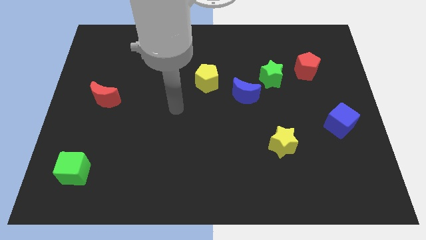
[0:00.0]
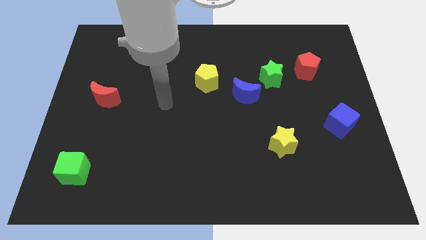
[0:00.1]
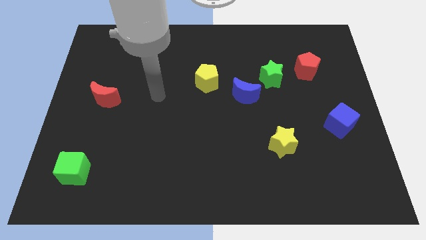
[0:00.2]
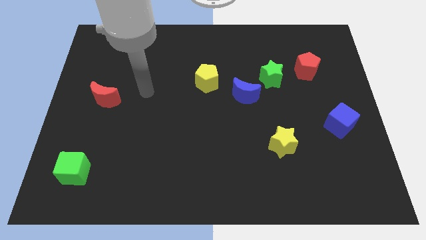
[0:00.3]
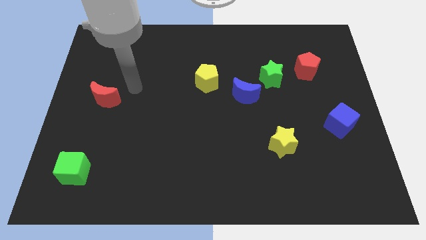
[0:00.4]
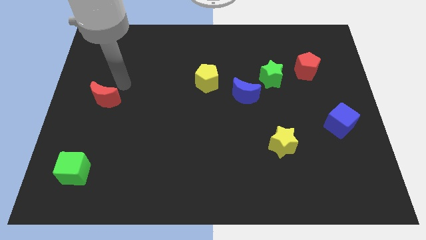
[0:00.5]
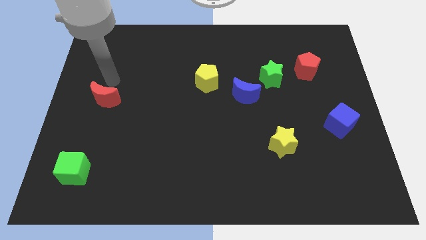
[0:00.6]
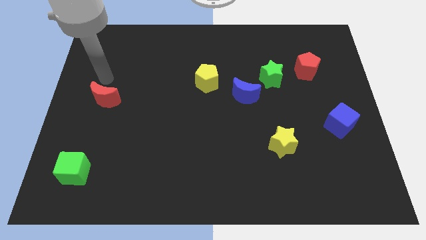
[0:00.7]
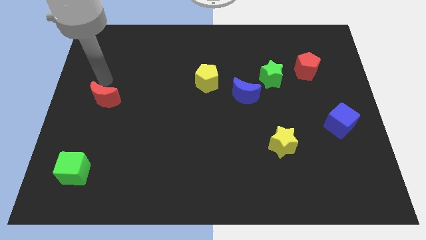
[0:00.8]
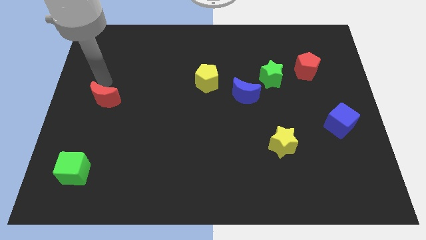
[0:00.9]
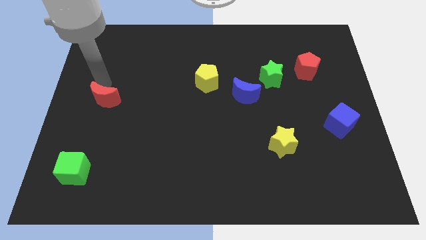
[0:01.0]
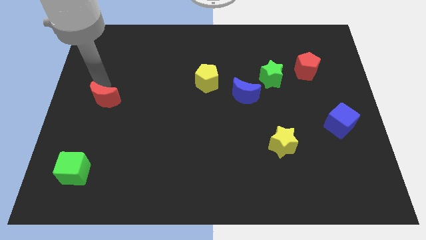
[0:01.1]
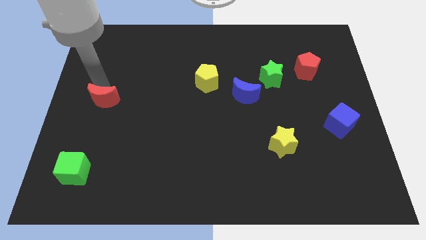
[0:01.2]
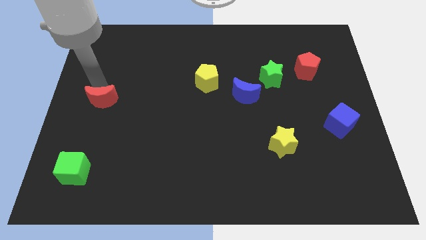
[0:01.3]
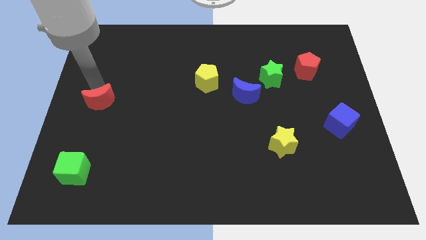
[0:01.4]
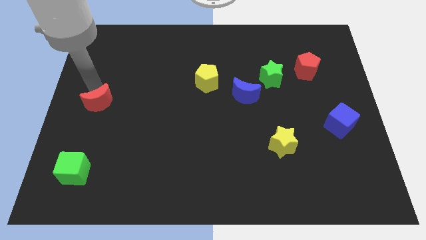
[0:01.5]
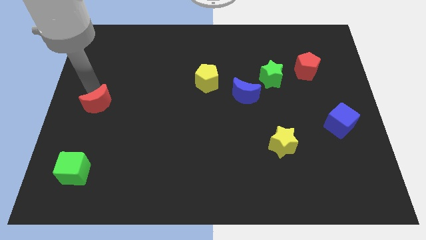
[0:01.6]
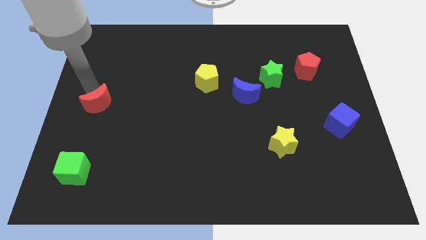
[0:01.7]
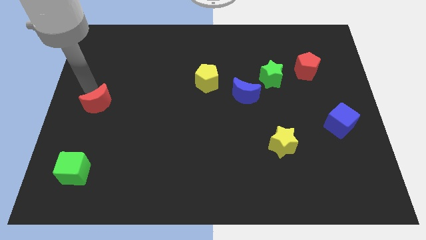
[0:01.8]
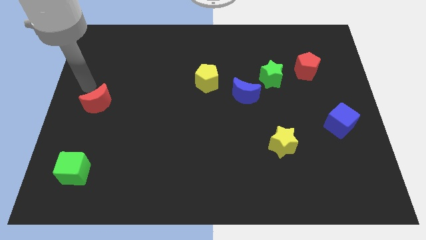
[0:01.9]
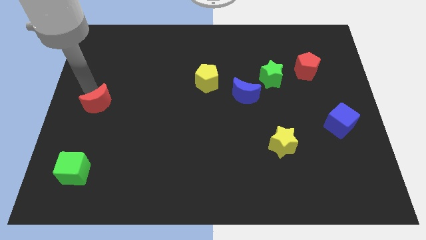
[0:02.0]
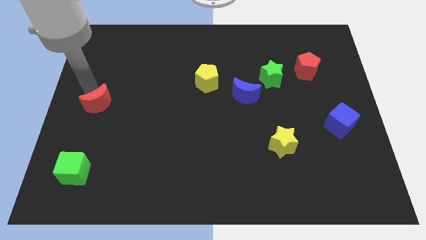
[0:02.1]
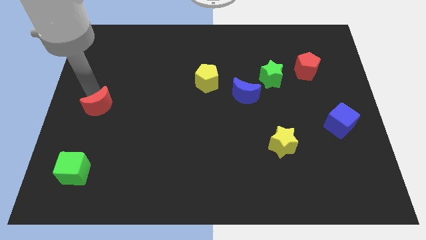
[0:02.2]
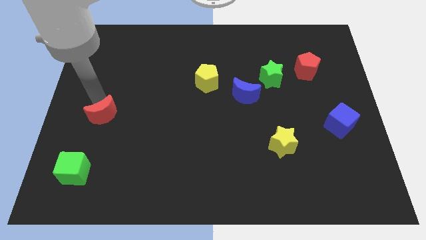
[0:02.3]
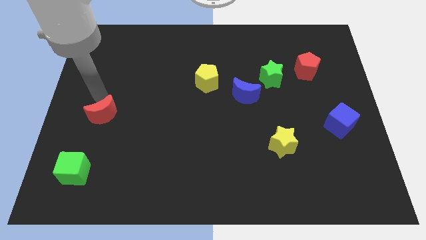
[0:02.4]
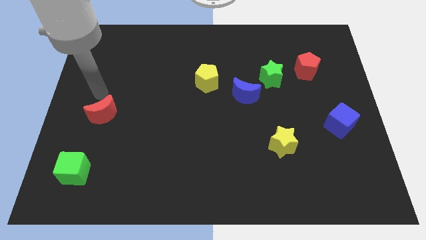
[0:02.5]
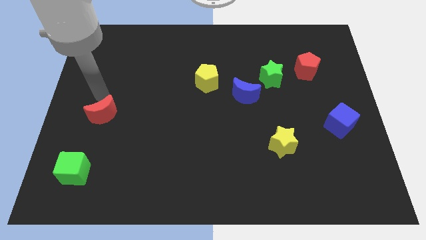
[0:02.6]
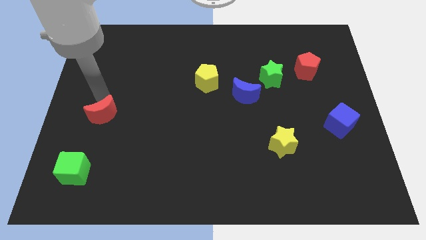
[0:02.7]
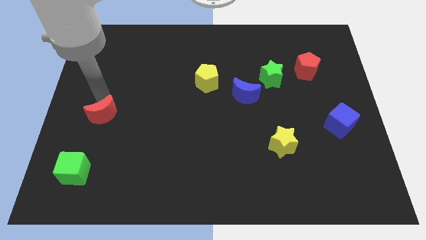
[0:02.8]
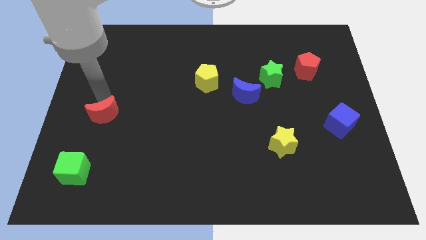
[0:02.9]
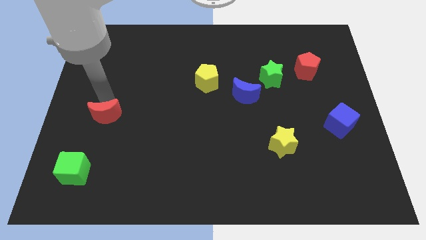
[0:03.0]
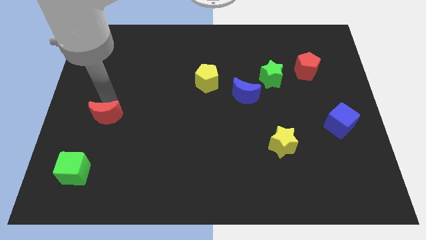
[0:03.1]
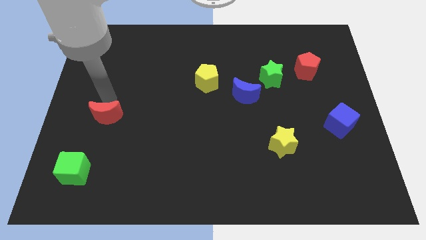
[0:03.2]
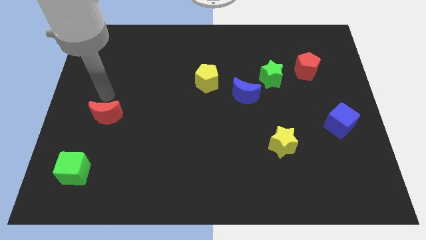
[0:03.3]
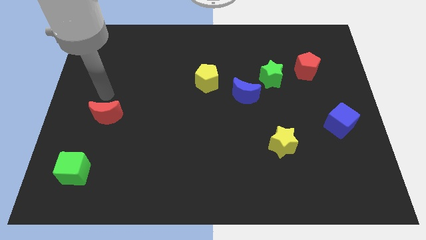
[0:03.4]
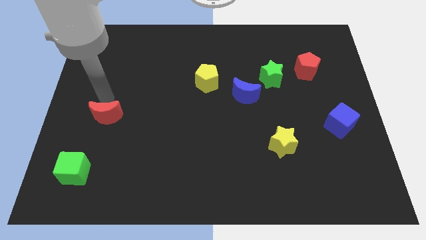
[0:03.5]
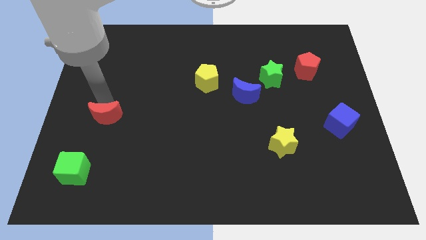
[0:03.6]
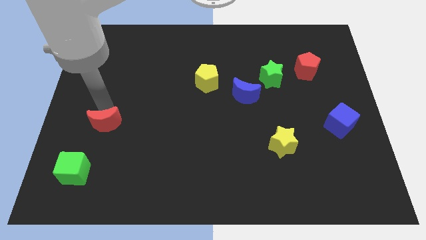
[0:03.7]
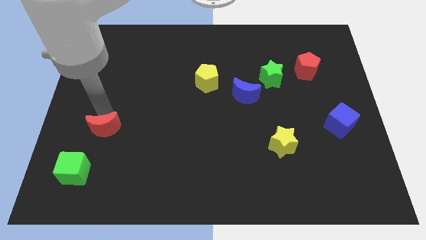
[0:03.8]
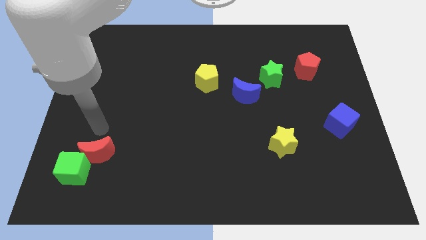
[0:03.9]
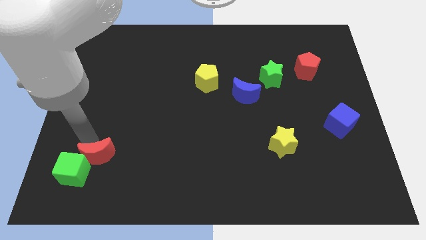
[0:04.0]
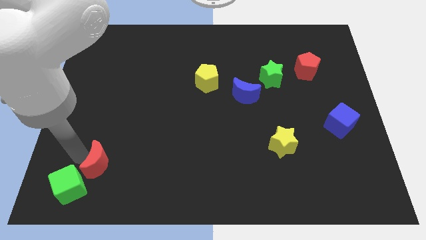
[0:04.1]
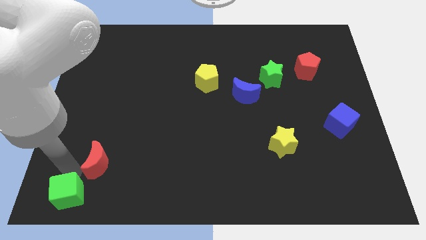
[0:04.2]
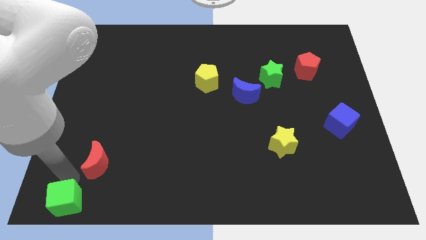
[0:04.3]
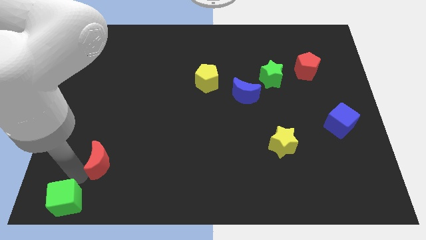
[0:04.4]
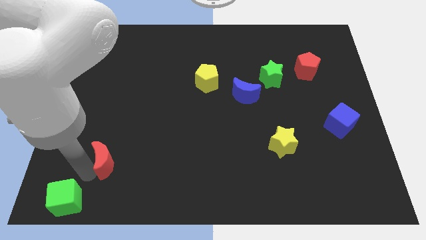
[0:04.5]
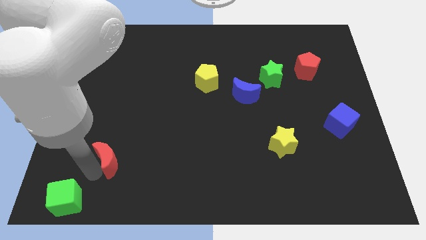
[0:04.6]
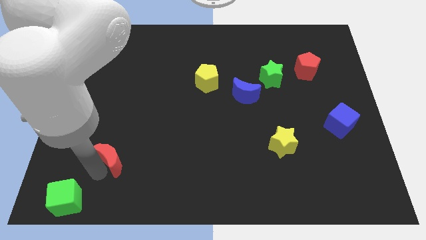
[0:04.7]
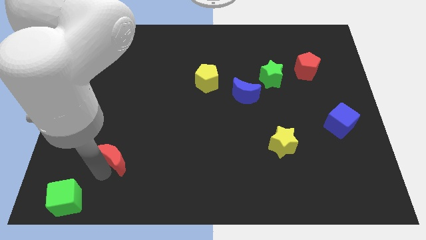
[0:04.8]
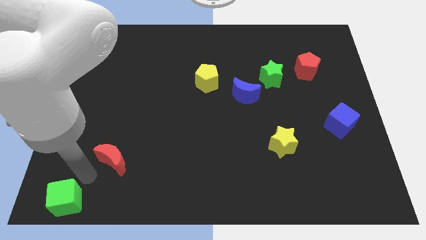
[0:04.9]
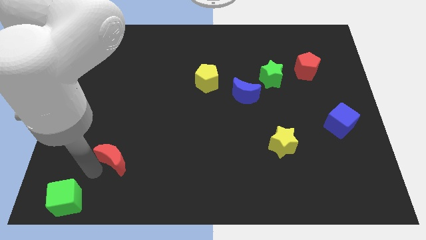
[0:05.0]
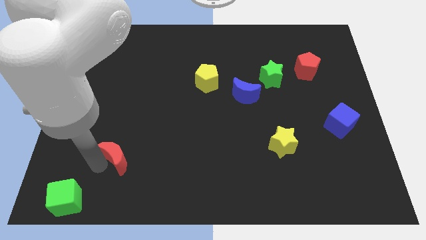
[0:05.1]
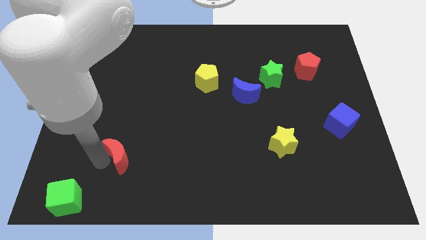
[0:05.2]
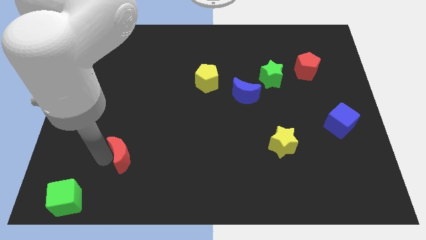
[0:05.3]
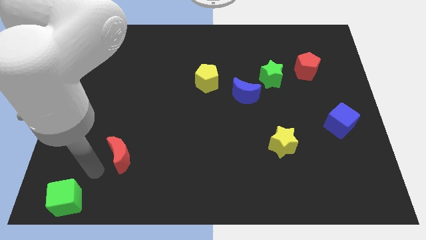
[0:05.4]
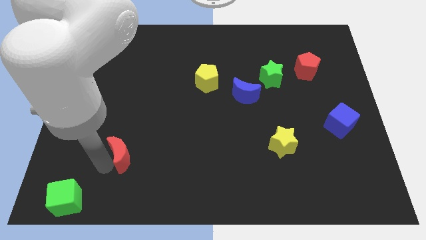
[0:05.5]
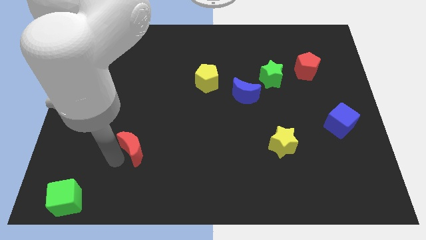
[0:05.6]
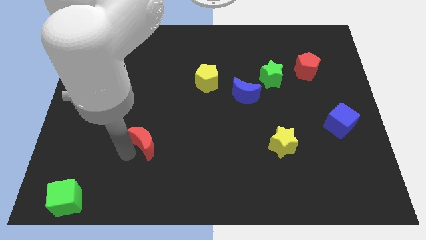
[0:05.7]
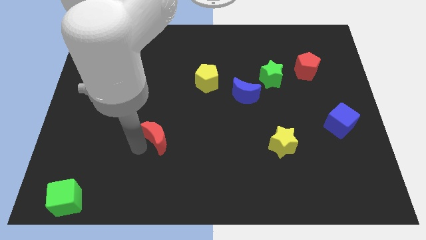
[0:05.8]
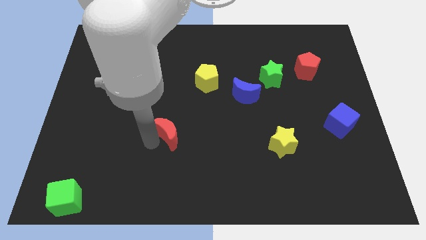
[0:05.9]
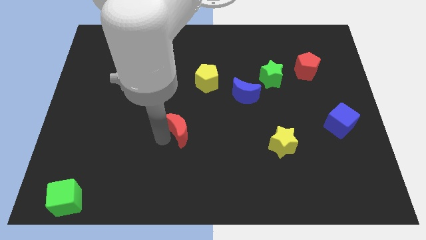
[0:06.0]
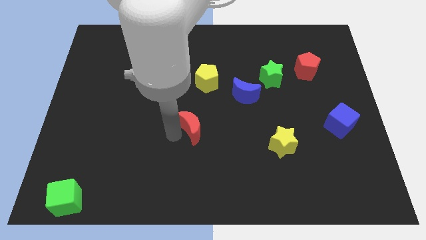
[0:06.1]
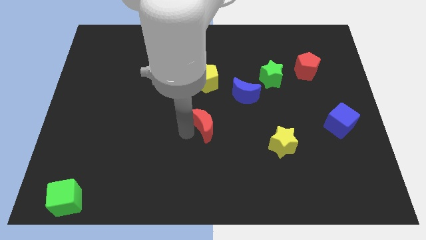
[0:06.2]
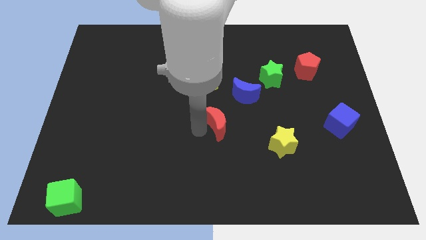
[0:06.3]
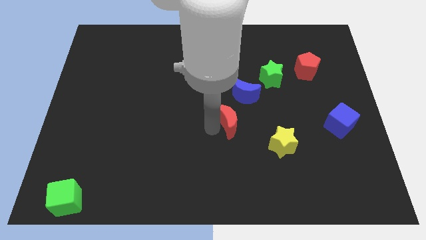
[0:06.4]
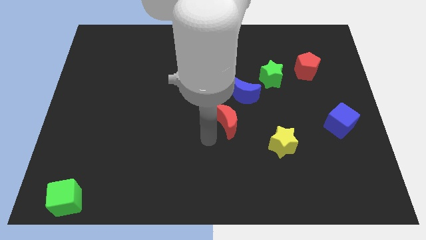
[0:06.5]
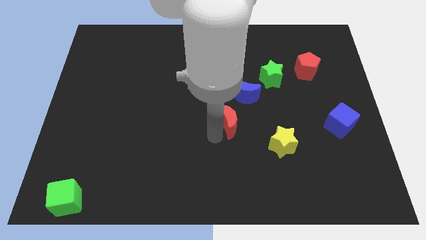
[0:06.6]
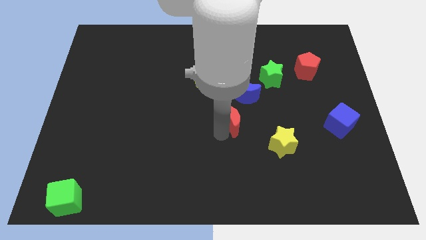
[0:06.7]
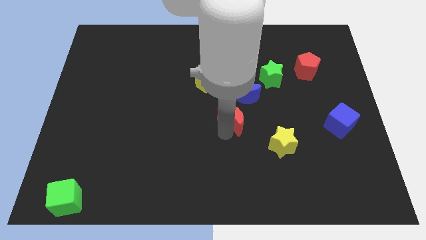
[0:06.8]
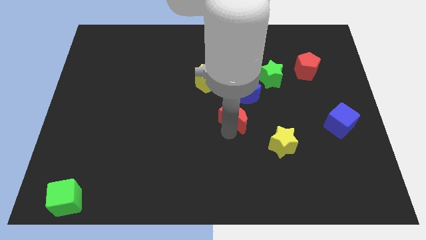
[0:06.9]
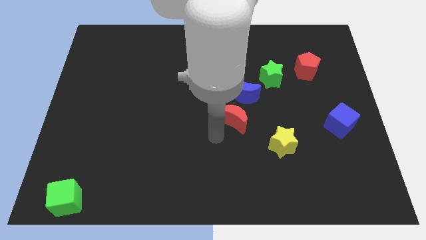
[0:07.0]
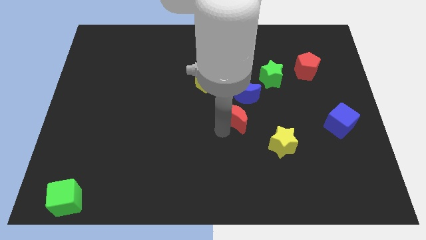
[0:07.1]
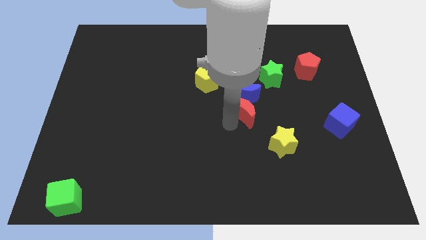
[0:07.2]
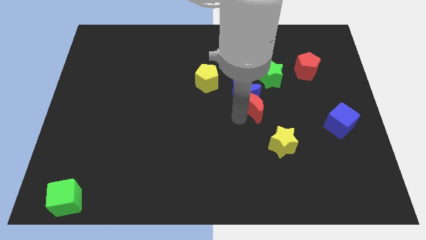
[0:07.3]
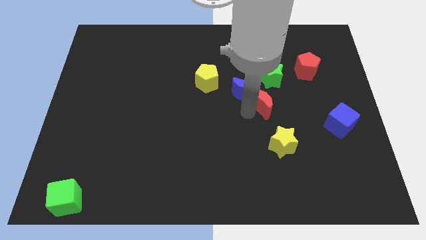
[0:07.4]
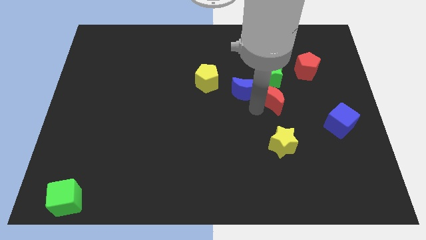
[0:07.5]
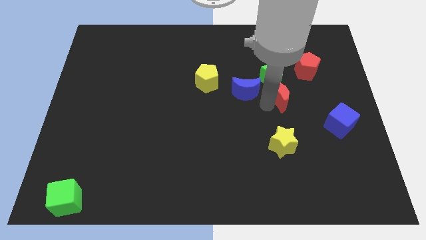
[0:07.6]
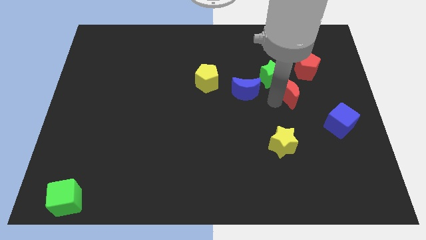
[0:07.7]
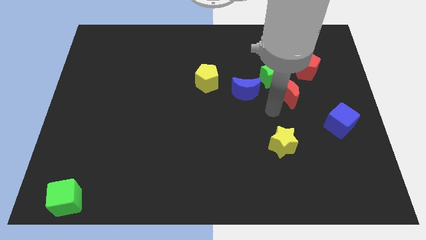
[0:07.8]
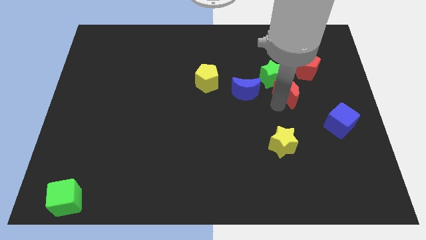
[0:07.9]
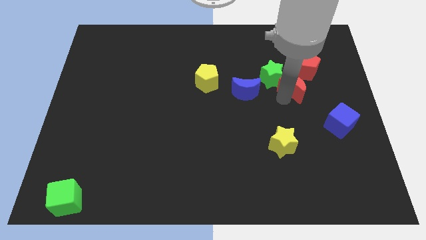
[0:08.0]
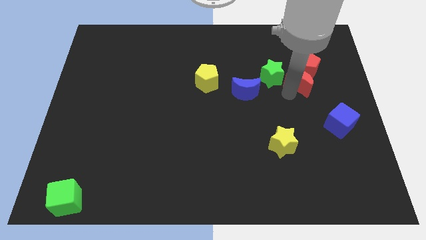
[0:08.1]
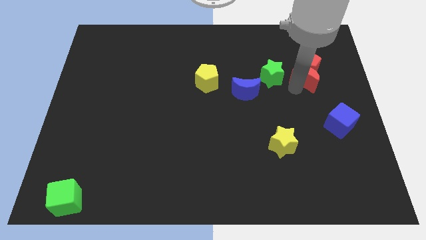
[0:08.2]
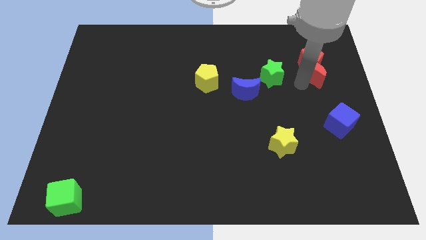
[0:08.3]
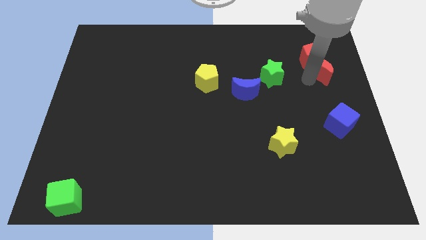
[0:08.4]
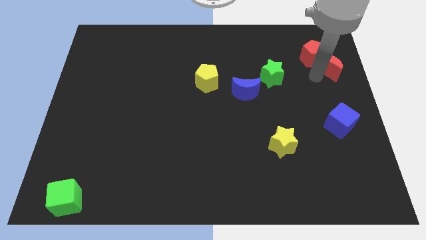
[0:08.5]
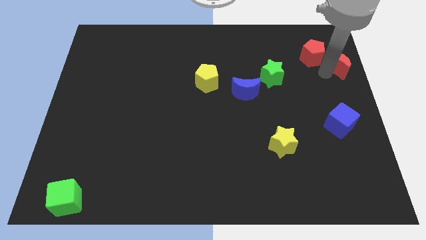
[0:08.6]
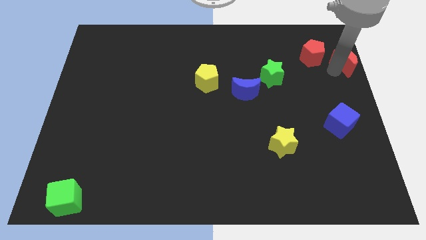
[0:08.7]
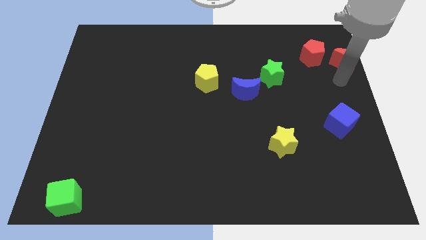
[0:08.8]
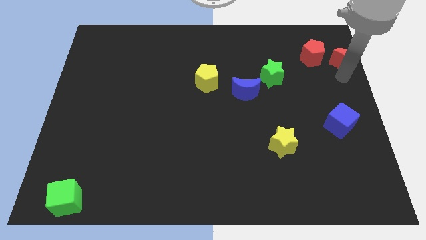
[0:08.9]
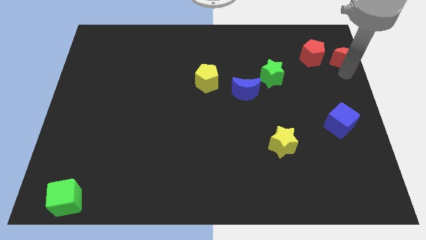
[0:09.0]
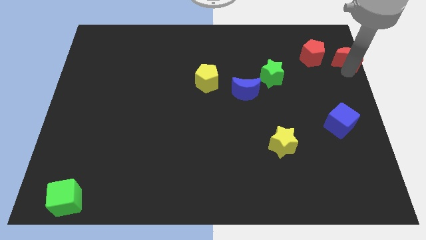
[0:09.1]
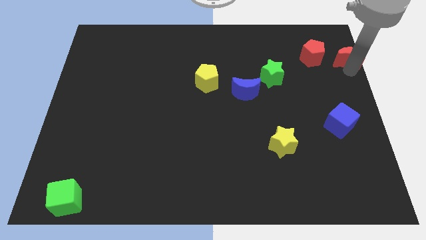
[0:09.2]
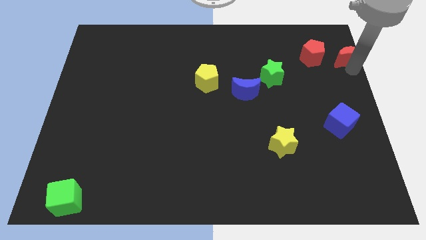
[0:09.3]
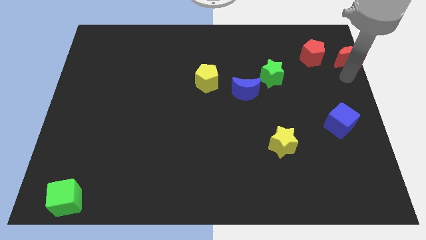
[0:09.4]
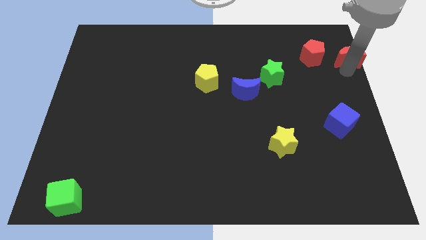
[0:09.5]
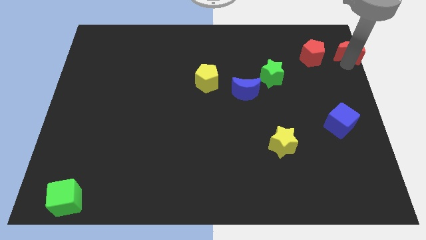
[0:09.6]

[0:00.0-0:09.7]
push the red moon to the top right
